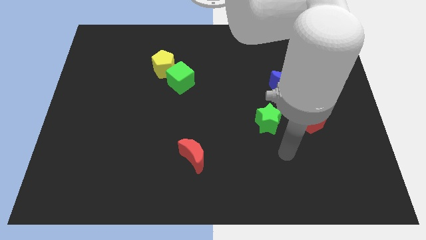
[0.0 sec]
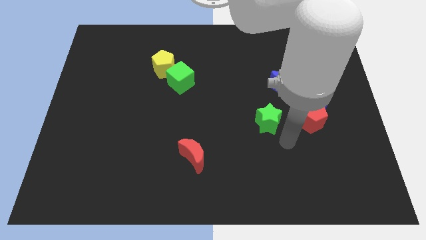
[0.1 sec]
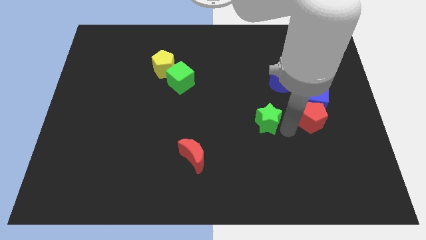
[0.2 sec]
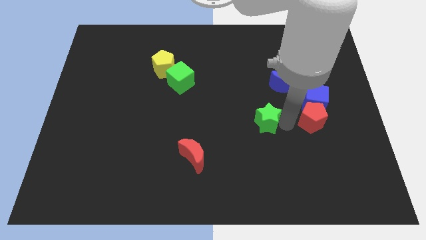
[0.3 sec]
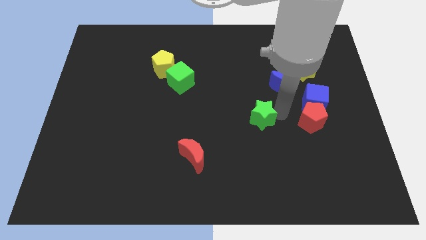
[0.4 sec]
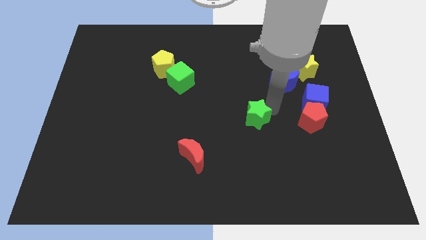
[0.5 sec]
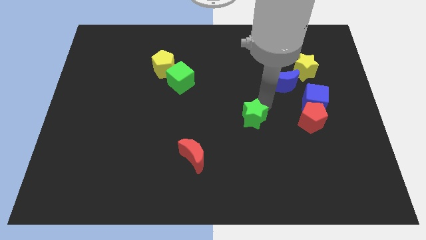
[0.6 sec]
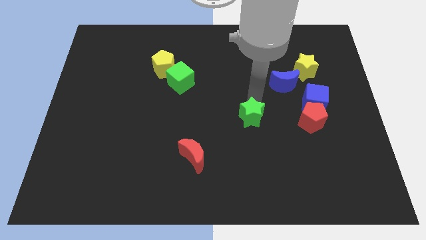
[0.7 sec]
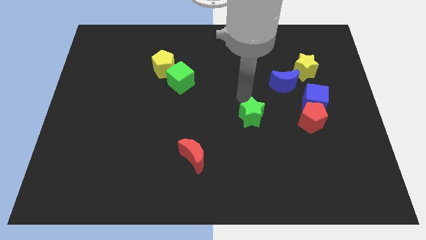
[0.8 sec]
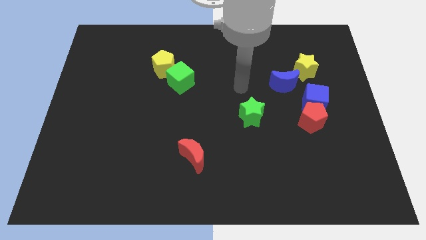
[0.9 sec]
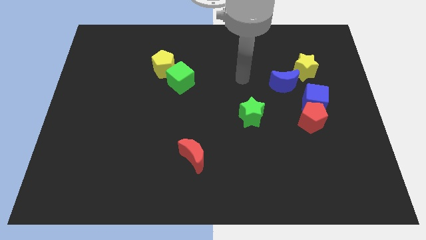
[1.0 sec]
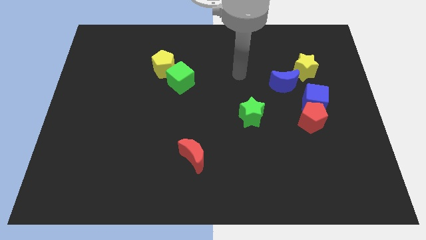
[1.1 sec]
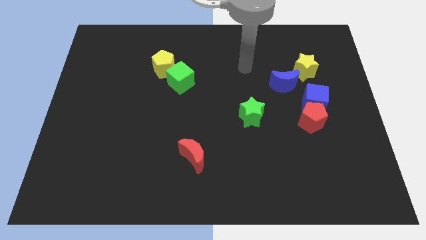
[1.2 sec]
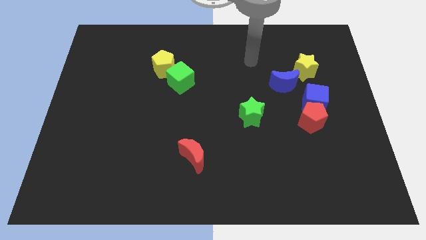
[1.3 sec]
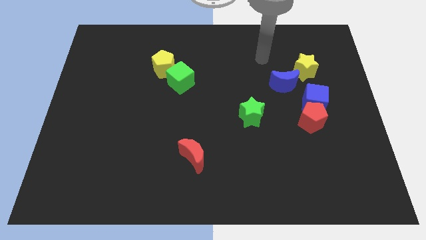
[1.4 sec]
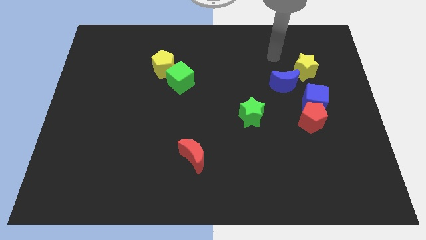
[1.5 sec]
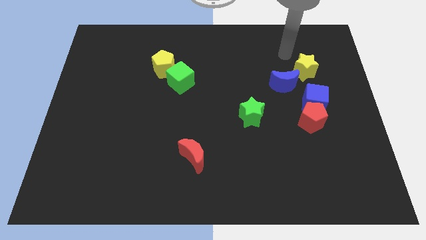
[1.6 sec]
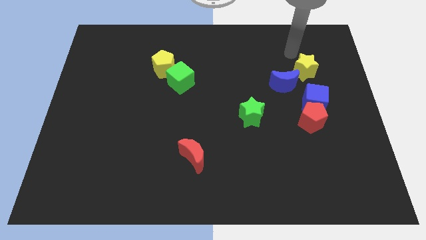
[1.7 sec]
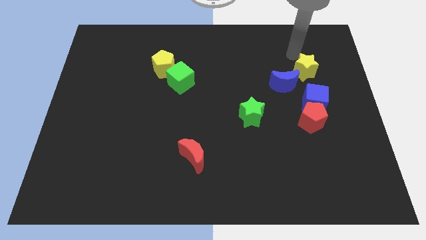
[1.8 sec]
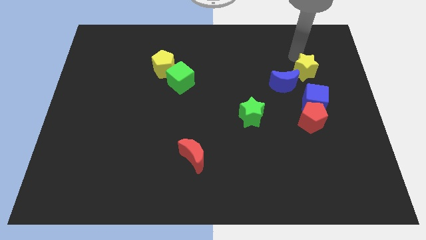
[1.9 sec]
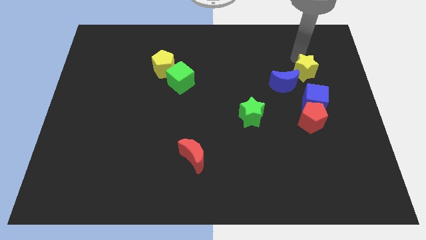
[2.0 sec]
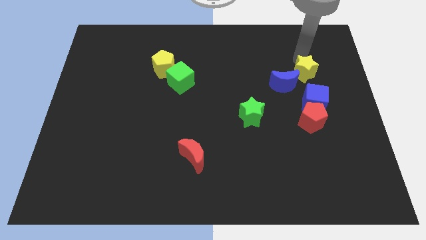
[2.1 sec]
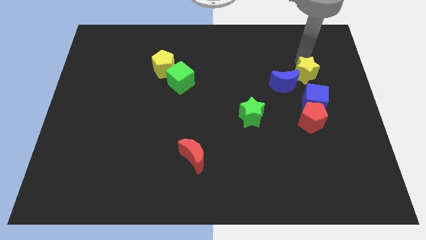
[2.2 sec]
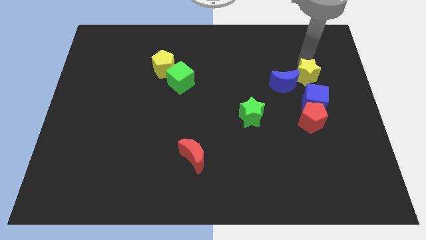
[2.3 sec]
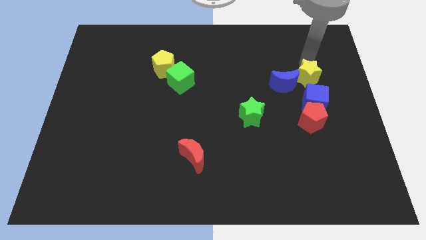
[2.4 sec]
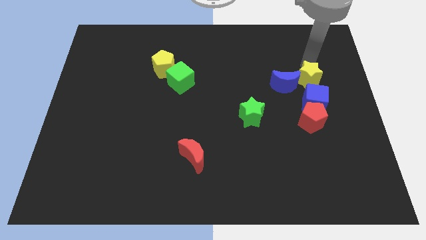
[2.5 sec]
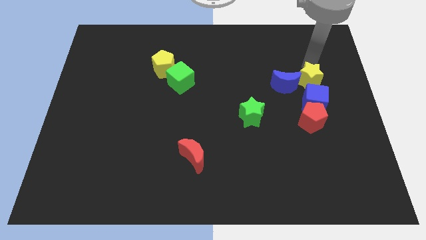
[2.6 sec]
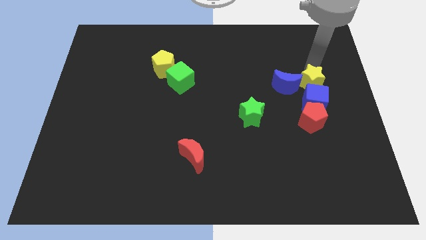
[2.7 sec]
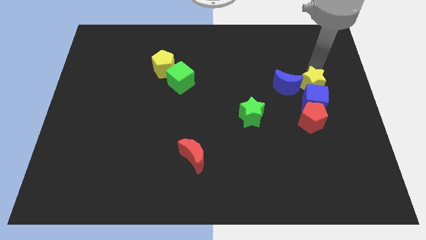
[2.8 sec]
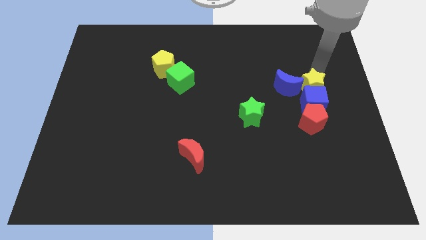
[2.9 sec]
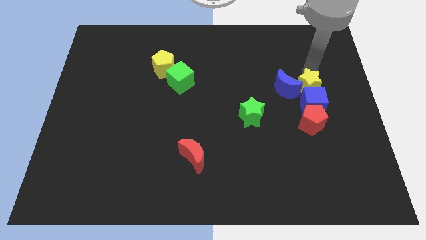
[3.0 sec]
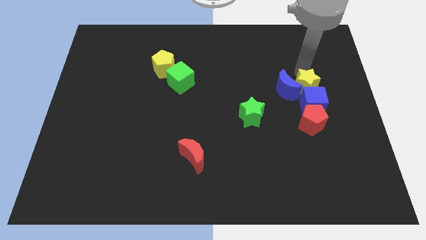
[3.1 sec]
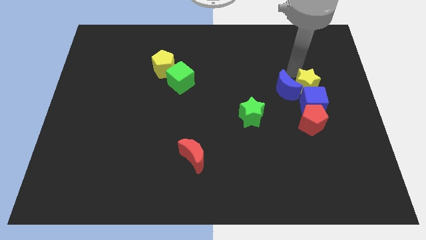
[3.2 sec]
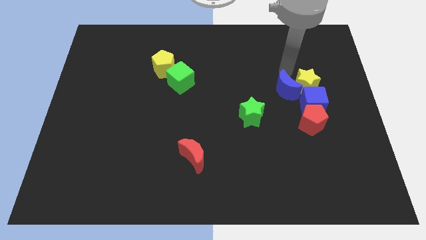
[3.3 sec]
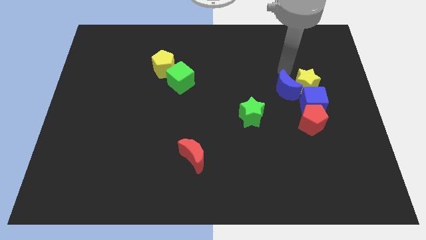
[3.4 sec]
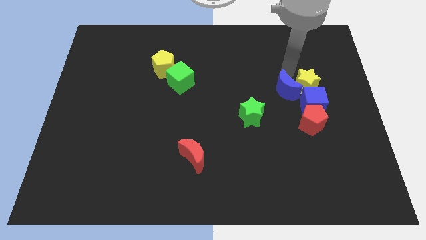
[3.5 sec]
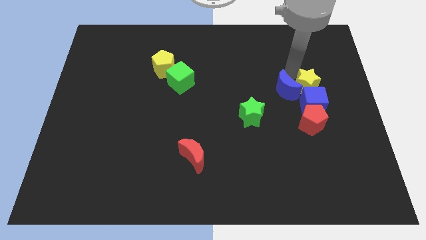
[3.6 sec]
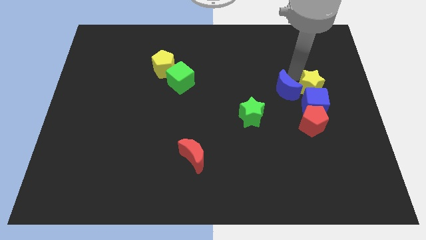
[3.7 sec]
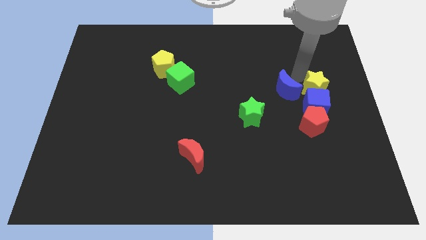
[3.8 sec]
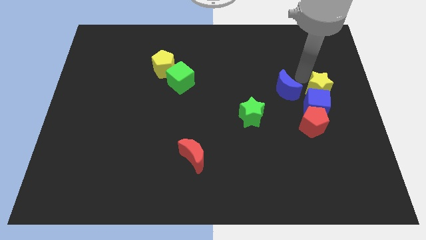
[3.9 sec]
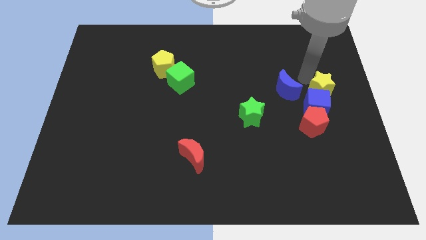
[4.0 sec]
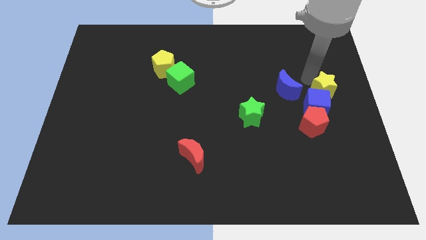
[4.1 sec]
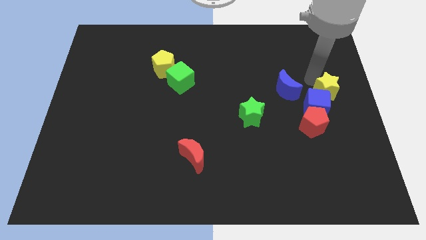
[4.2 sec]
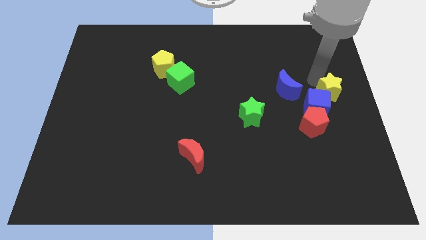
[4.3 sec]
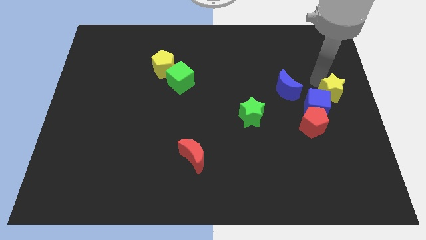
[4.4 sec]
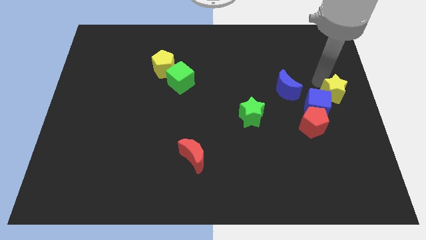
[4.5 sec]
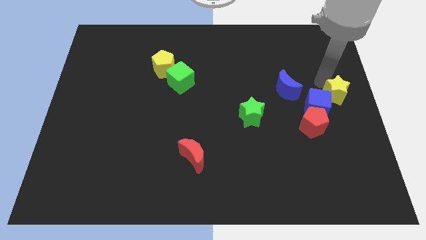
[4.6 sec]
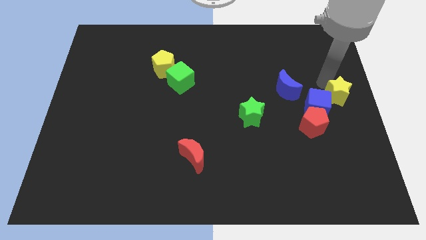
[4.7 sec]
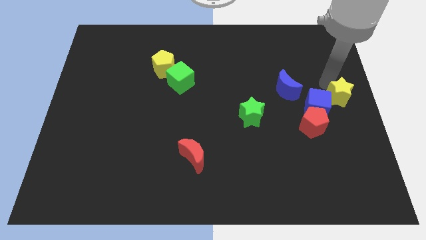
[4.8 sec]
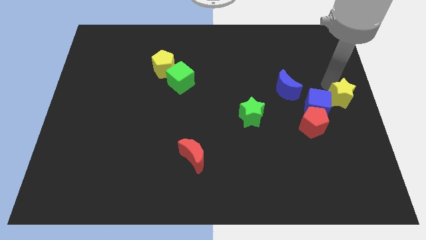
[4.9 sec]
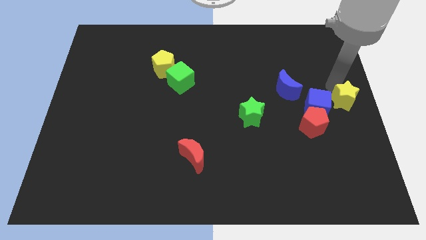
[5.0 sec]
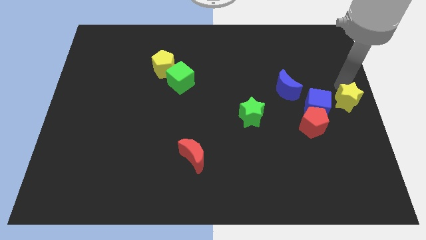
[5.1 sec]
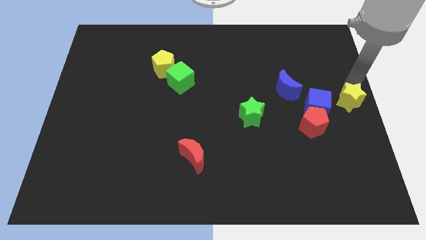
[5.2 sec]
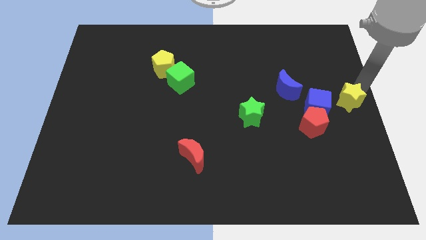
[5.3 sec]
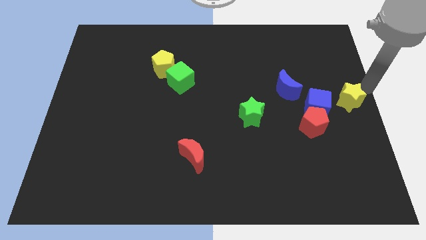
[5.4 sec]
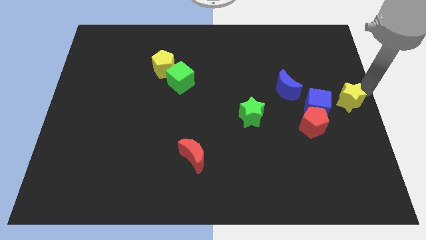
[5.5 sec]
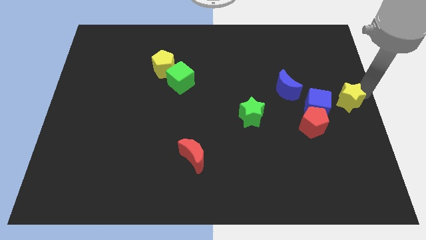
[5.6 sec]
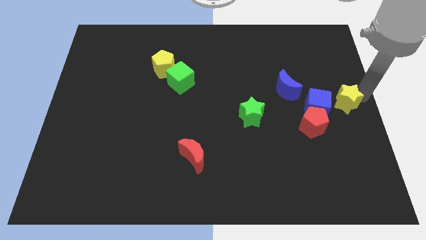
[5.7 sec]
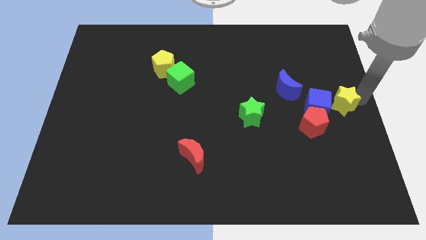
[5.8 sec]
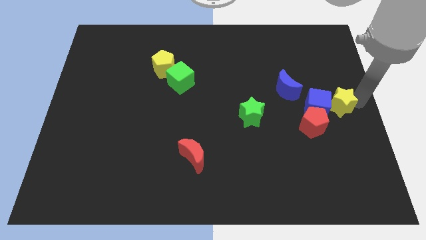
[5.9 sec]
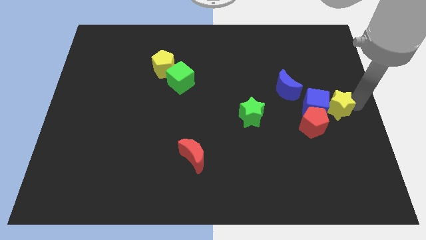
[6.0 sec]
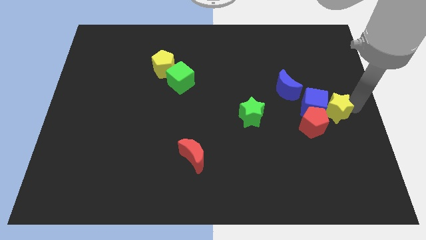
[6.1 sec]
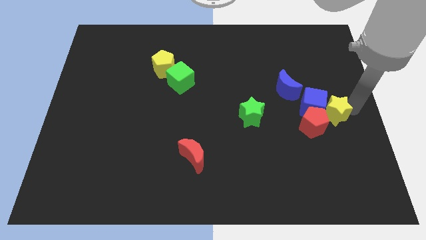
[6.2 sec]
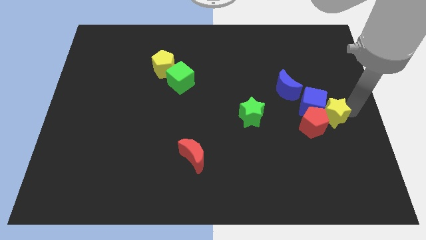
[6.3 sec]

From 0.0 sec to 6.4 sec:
put the yellow star to the red pentagon
